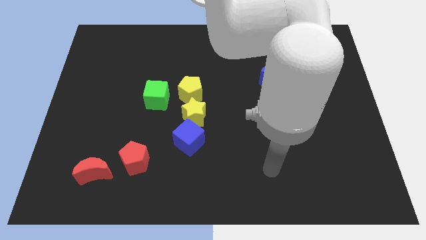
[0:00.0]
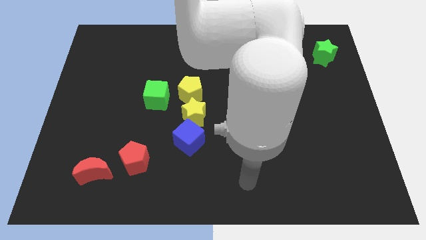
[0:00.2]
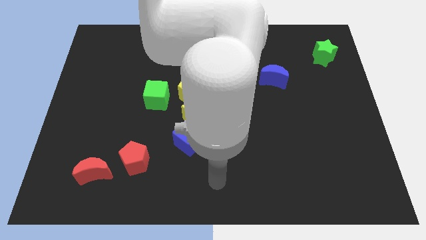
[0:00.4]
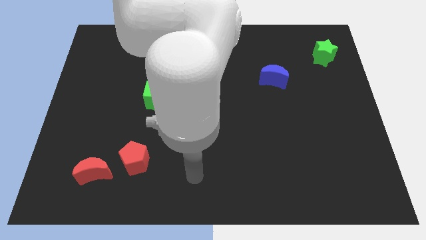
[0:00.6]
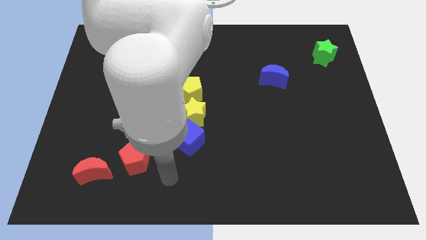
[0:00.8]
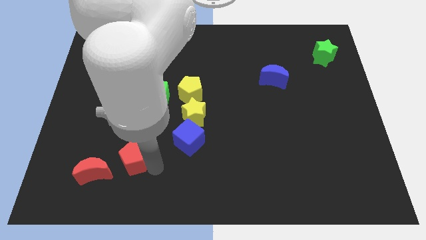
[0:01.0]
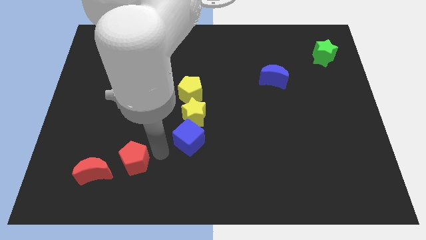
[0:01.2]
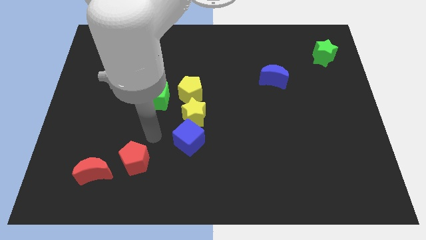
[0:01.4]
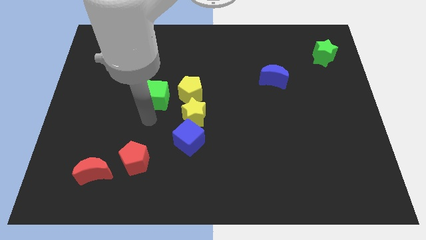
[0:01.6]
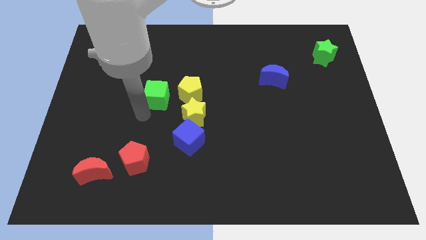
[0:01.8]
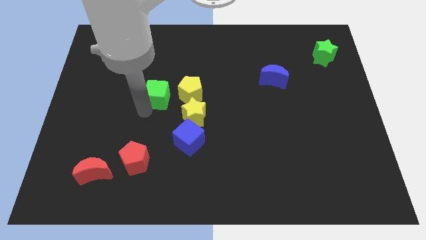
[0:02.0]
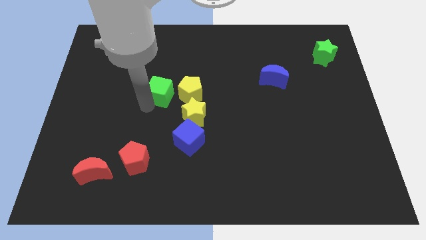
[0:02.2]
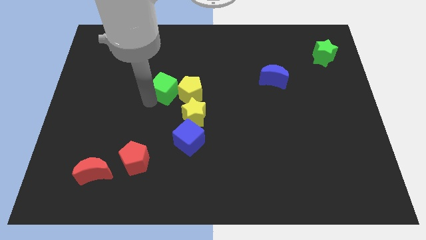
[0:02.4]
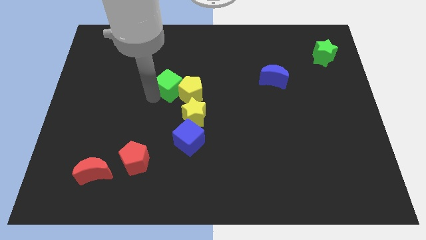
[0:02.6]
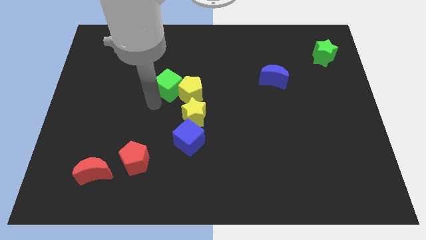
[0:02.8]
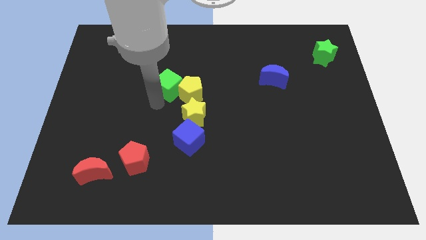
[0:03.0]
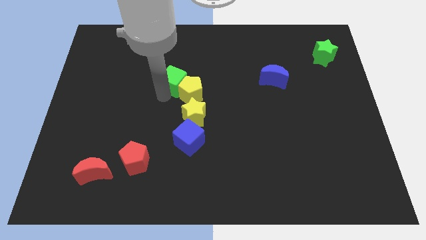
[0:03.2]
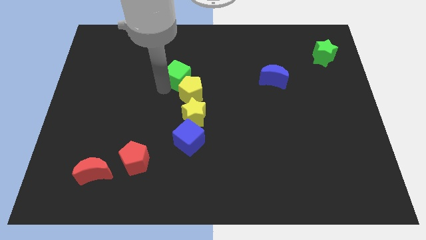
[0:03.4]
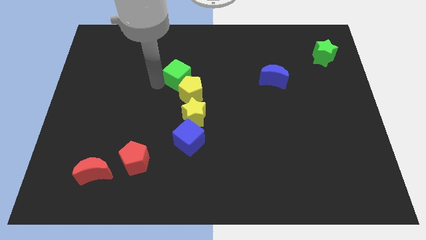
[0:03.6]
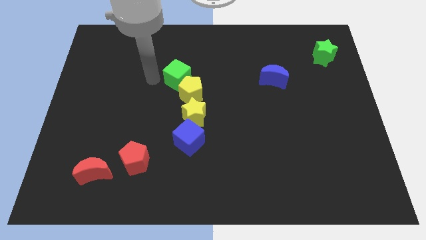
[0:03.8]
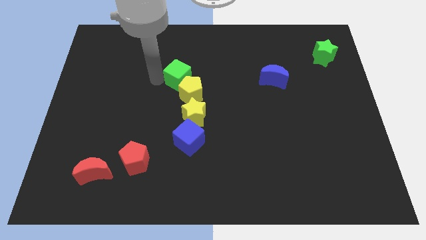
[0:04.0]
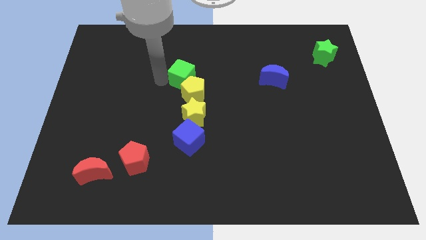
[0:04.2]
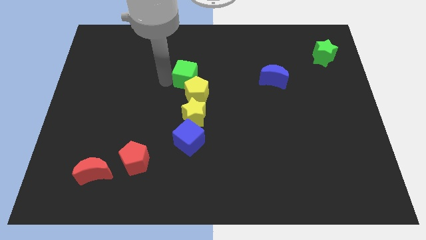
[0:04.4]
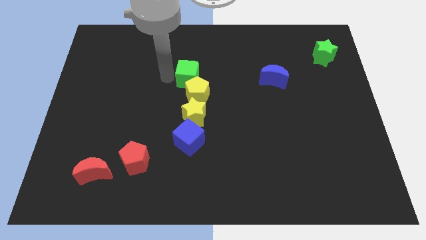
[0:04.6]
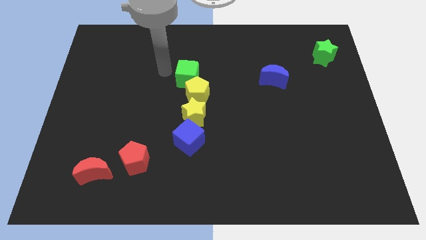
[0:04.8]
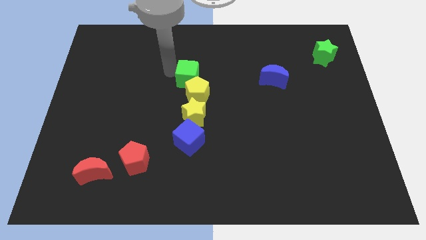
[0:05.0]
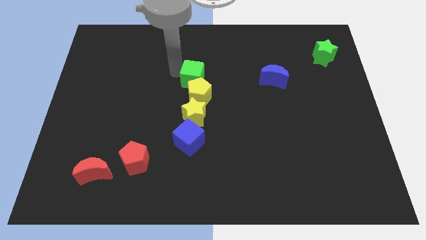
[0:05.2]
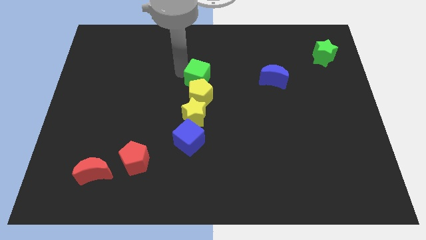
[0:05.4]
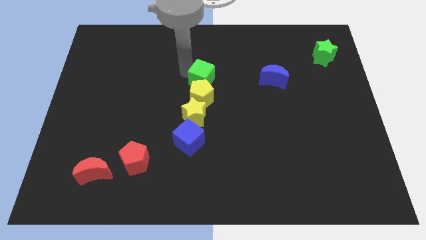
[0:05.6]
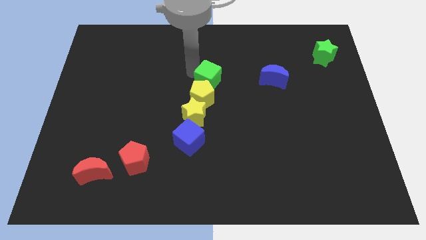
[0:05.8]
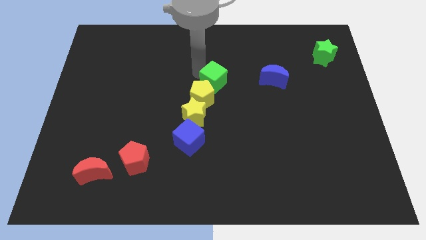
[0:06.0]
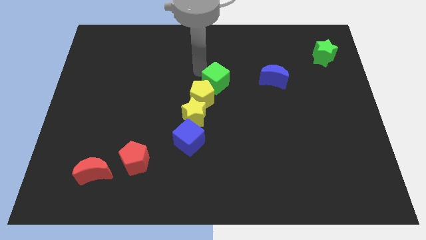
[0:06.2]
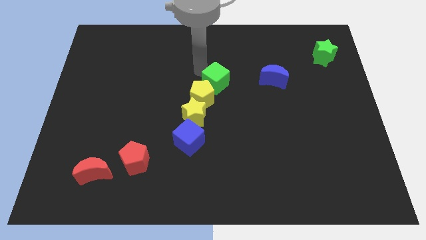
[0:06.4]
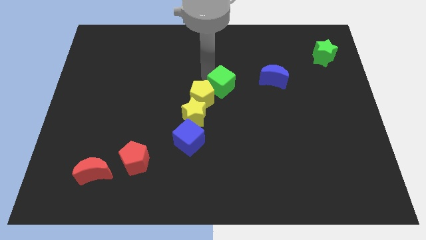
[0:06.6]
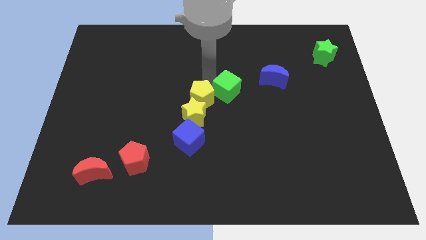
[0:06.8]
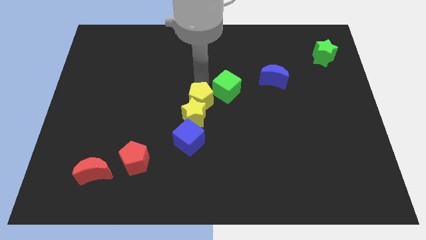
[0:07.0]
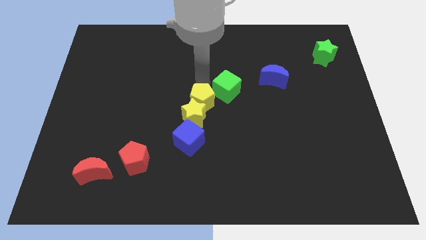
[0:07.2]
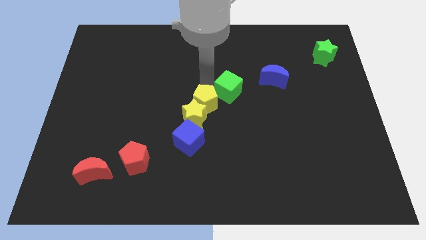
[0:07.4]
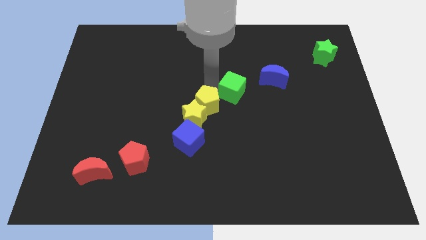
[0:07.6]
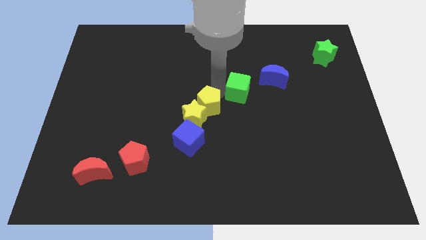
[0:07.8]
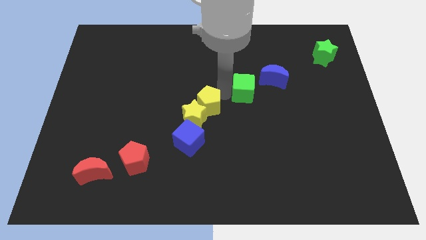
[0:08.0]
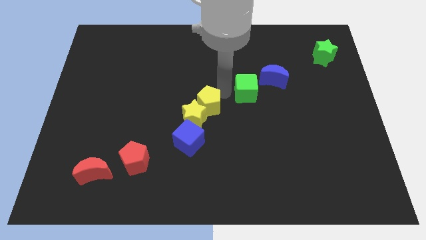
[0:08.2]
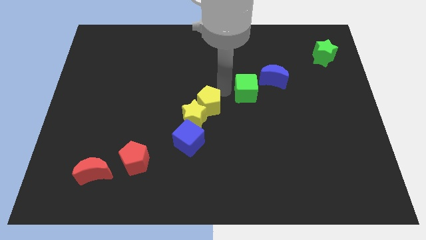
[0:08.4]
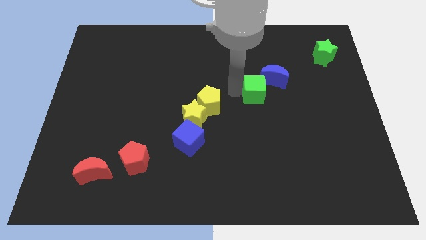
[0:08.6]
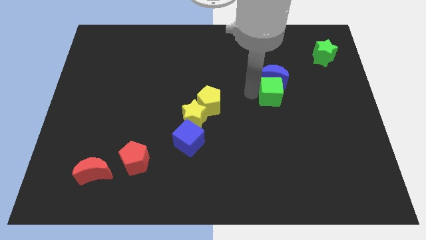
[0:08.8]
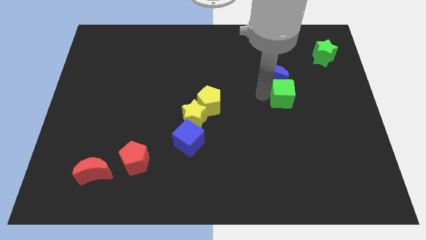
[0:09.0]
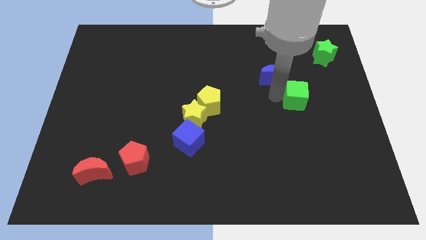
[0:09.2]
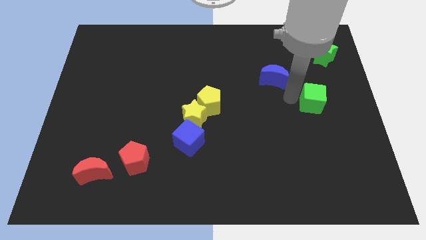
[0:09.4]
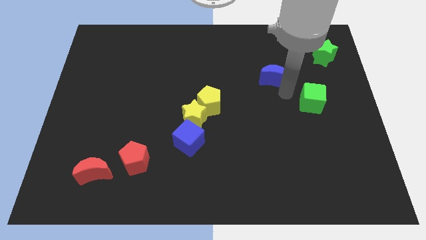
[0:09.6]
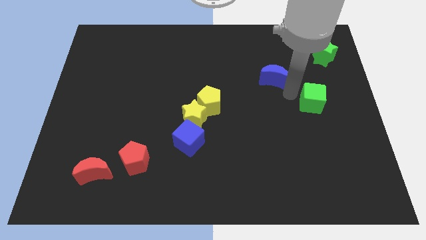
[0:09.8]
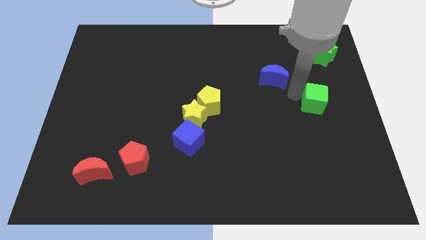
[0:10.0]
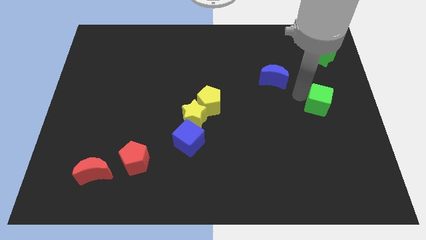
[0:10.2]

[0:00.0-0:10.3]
push the green cube to the right side of the board

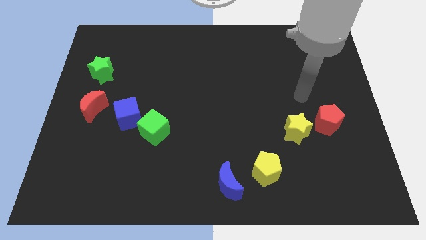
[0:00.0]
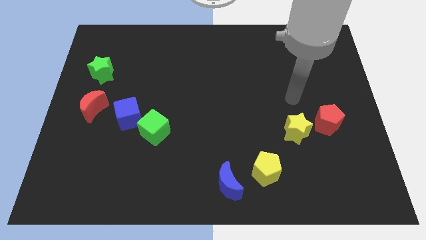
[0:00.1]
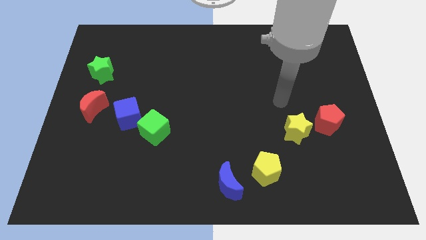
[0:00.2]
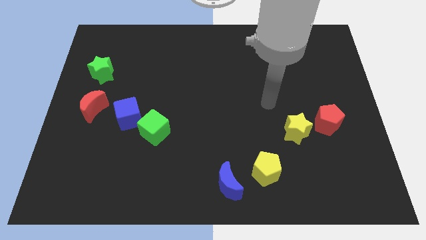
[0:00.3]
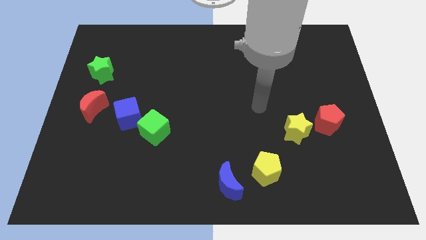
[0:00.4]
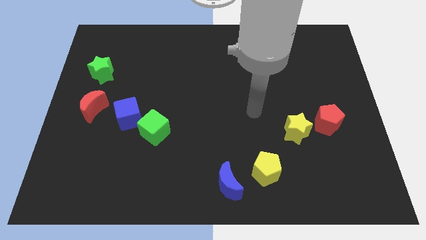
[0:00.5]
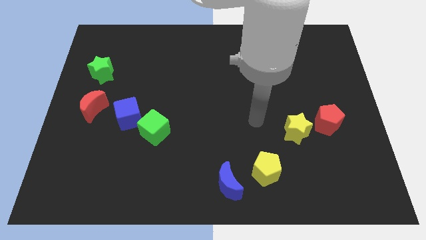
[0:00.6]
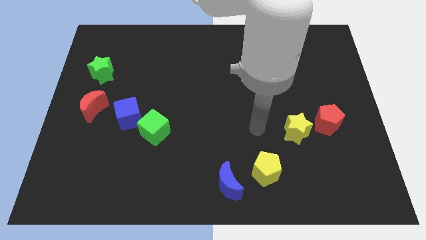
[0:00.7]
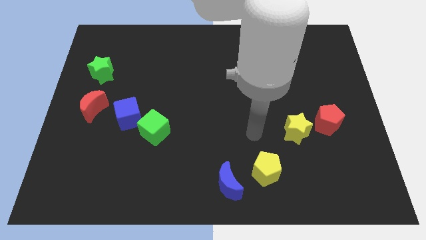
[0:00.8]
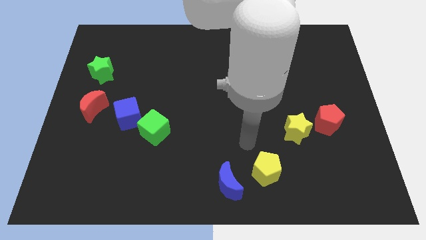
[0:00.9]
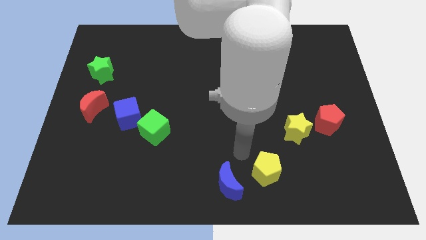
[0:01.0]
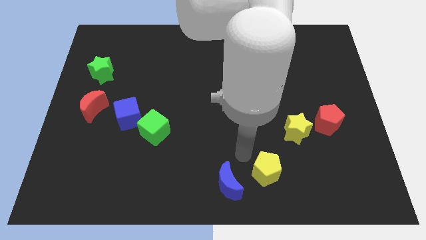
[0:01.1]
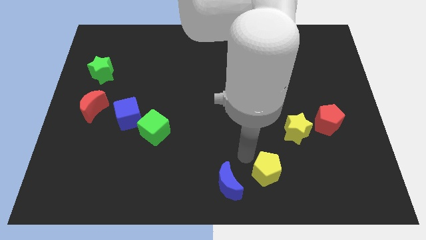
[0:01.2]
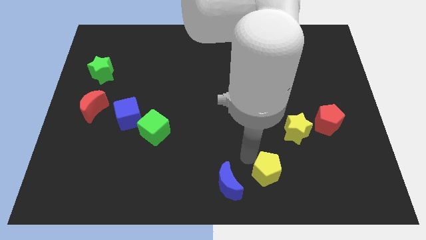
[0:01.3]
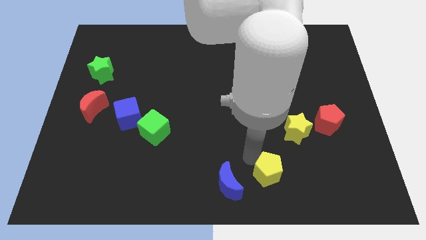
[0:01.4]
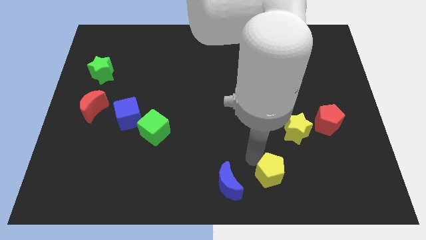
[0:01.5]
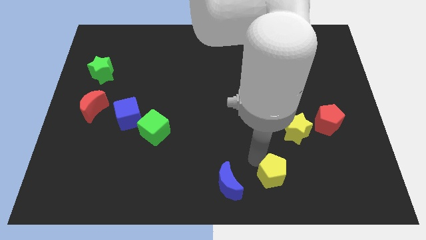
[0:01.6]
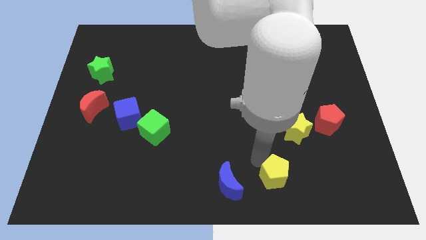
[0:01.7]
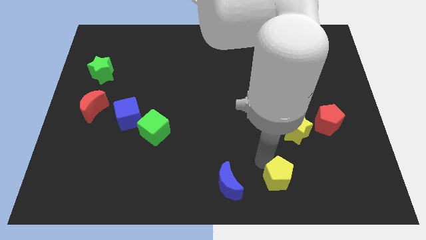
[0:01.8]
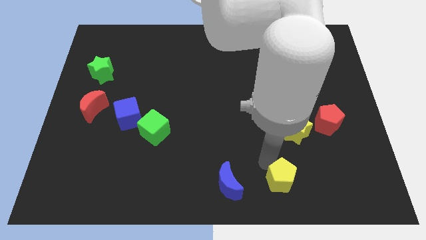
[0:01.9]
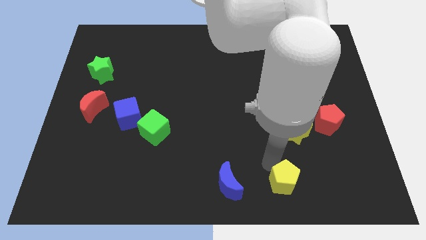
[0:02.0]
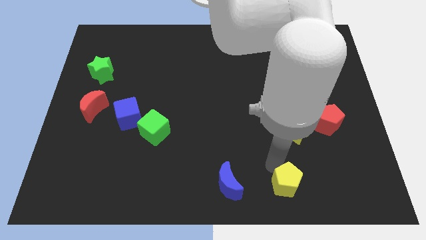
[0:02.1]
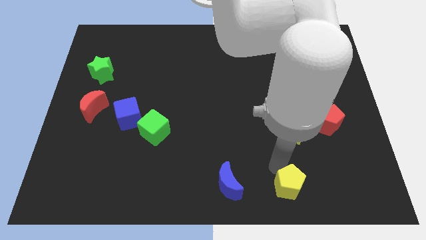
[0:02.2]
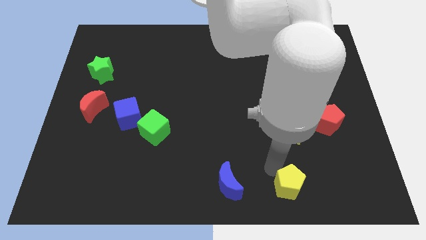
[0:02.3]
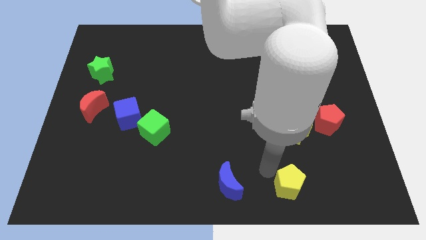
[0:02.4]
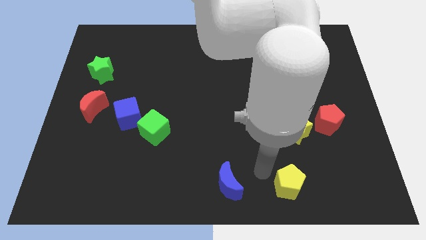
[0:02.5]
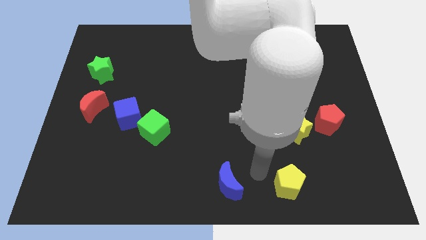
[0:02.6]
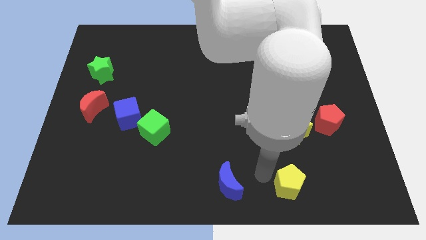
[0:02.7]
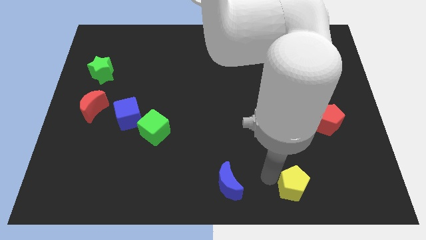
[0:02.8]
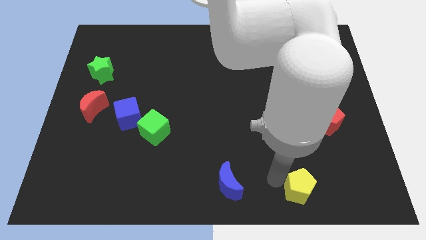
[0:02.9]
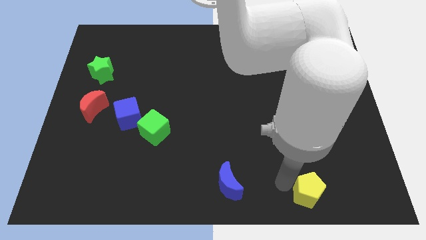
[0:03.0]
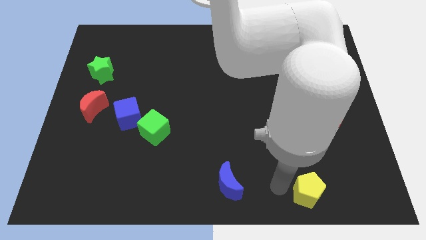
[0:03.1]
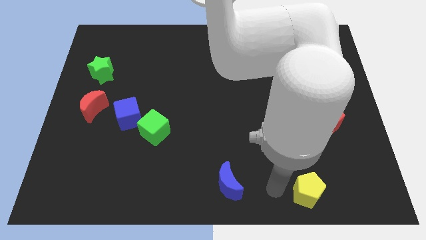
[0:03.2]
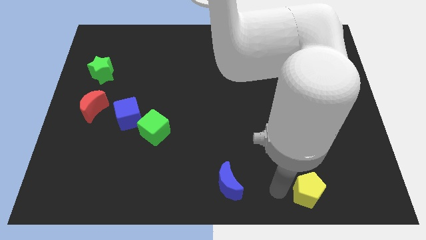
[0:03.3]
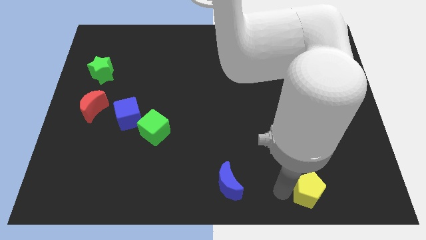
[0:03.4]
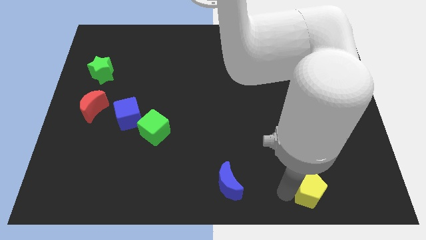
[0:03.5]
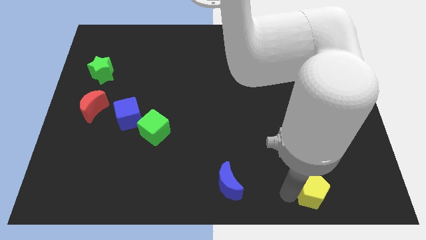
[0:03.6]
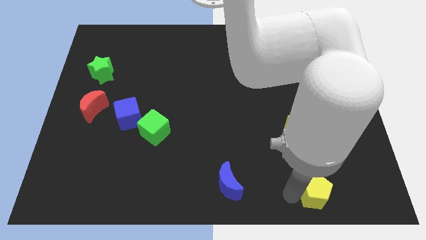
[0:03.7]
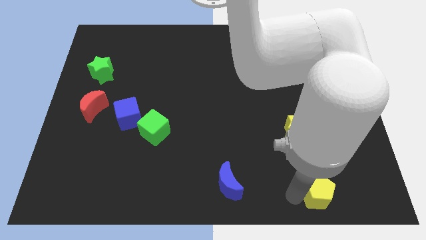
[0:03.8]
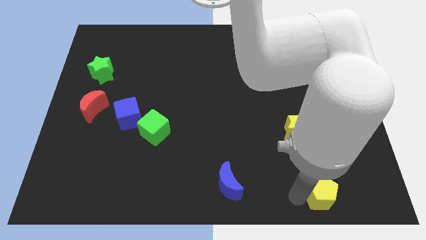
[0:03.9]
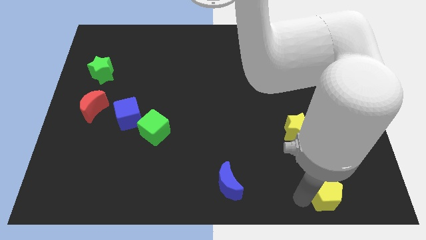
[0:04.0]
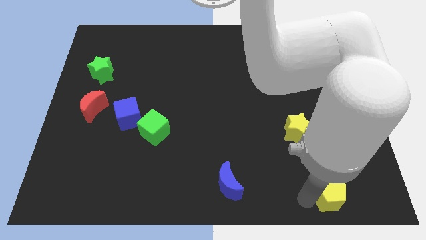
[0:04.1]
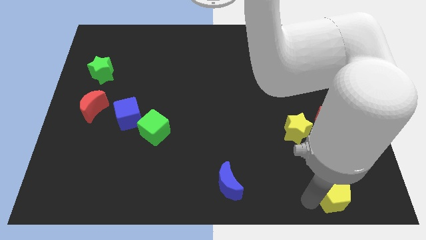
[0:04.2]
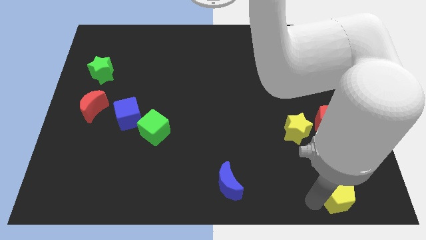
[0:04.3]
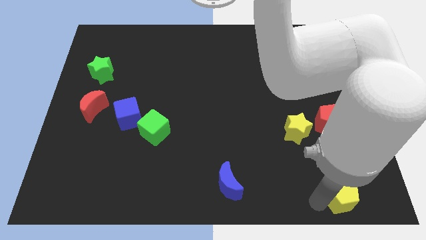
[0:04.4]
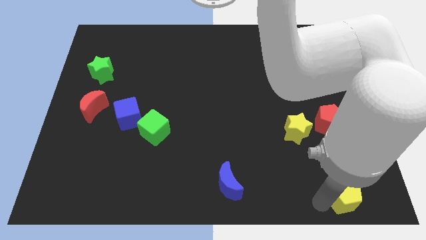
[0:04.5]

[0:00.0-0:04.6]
put the yellow pentagon to the bottom right
